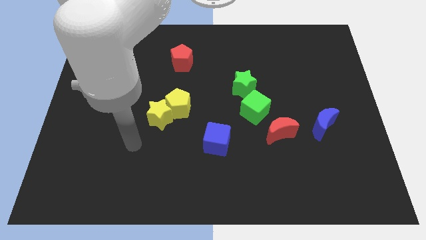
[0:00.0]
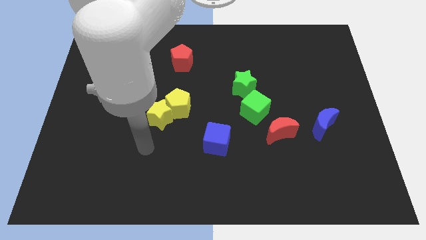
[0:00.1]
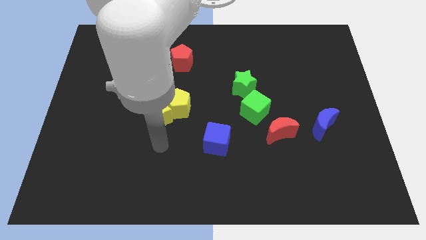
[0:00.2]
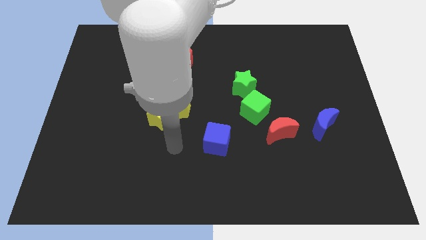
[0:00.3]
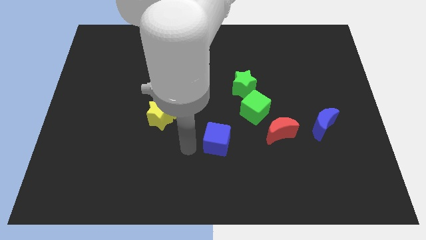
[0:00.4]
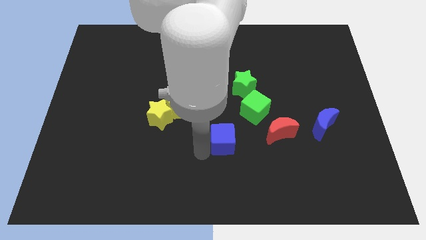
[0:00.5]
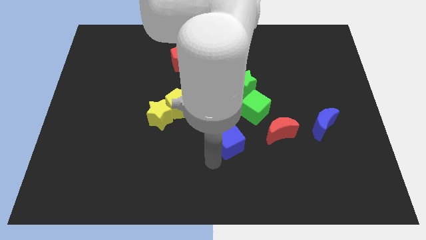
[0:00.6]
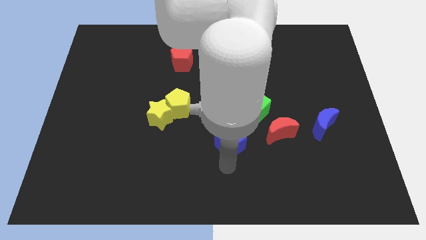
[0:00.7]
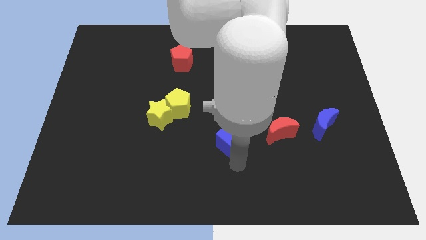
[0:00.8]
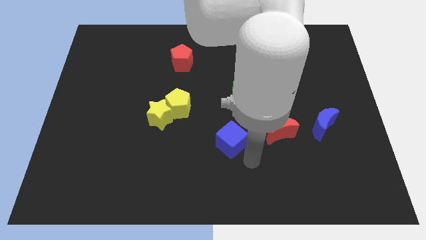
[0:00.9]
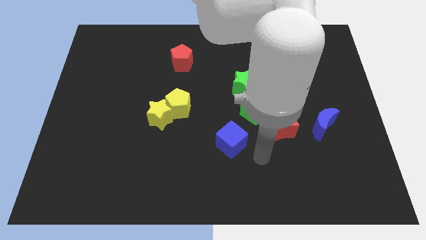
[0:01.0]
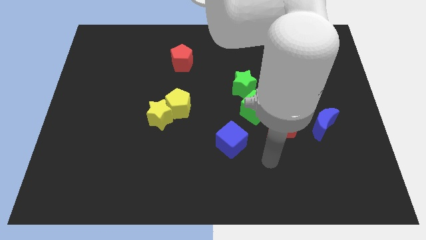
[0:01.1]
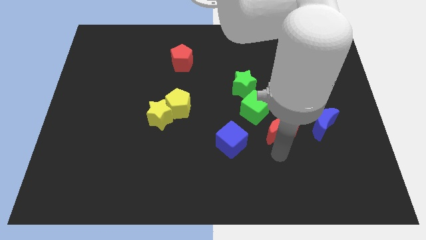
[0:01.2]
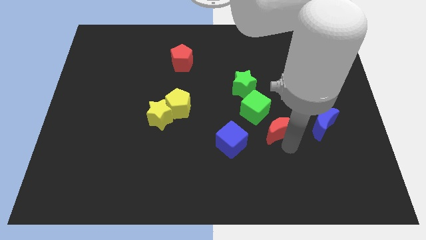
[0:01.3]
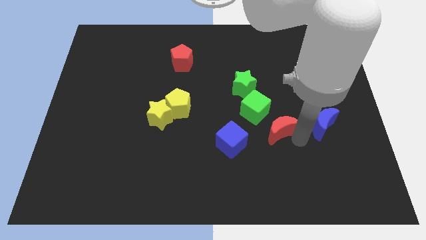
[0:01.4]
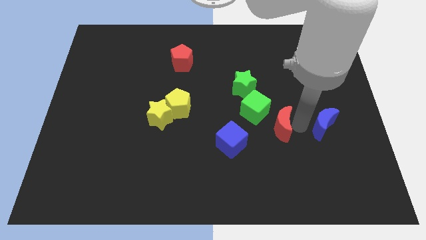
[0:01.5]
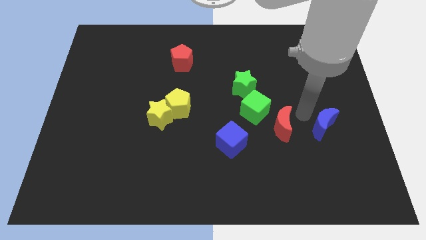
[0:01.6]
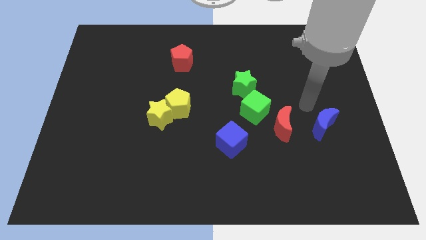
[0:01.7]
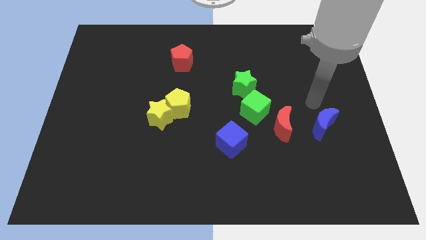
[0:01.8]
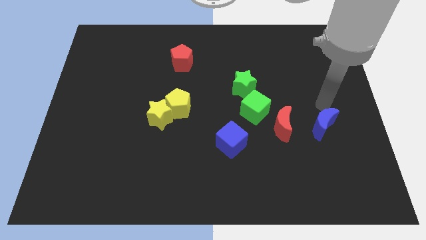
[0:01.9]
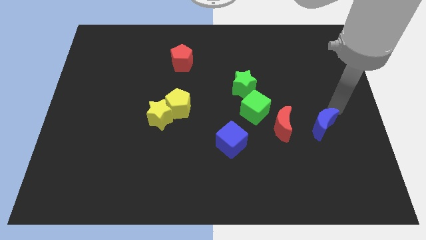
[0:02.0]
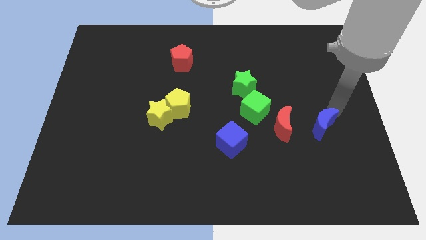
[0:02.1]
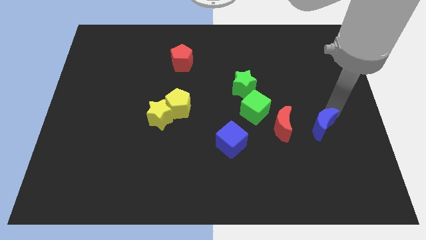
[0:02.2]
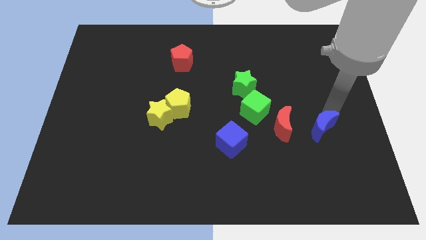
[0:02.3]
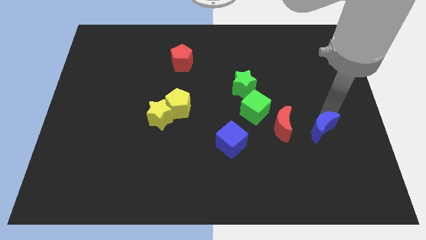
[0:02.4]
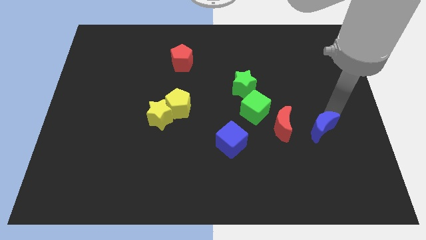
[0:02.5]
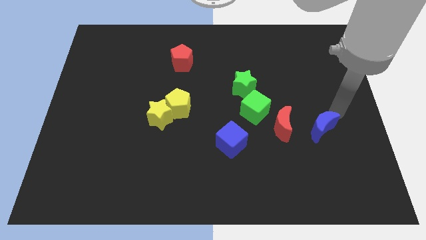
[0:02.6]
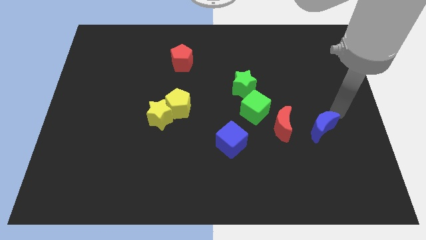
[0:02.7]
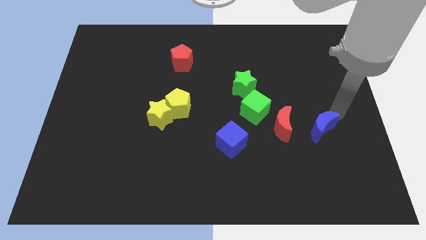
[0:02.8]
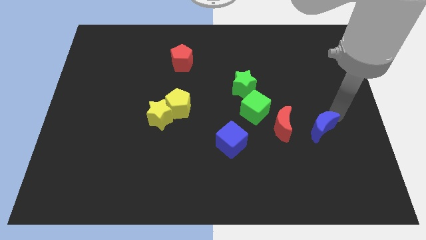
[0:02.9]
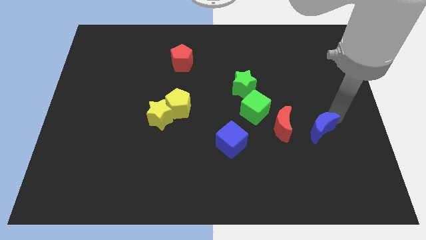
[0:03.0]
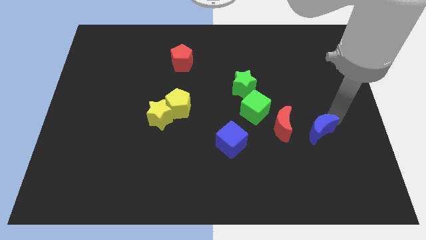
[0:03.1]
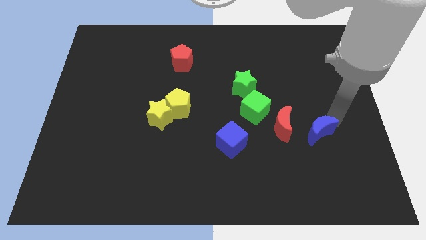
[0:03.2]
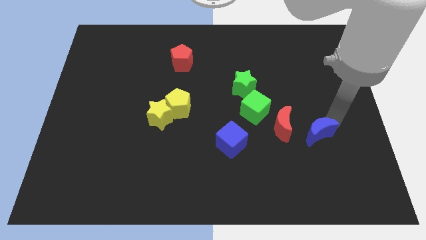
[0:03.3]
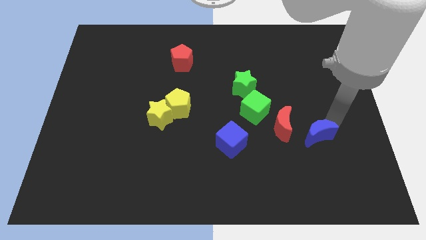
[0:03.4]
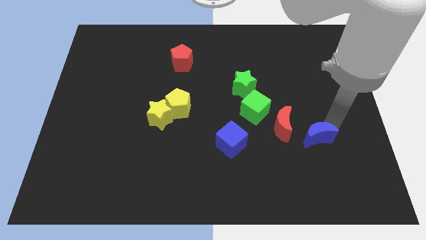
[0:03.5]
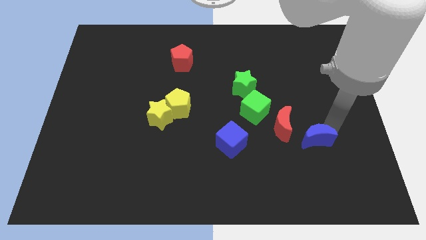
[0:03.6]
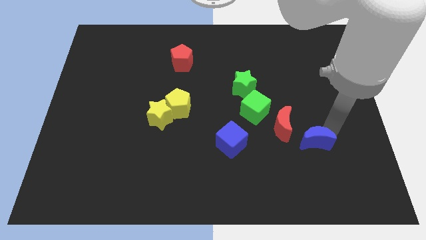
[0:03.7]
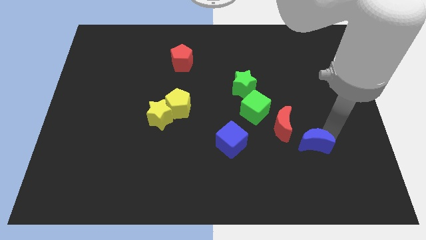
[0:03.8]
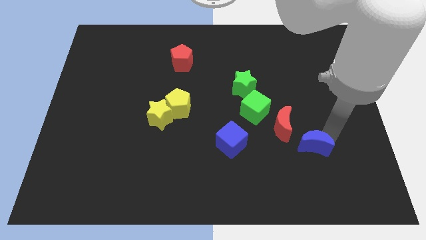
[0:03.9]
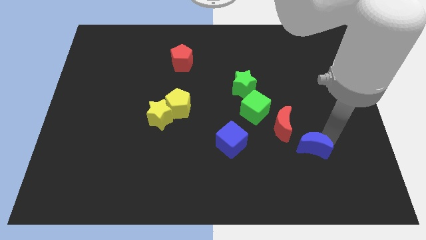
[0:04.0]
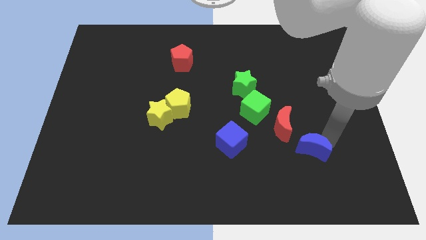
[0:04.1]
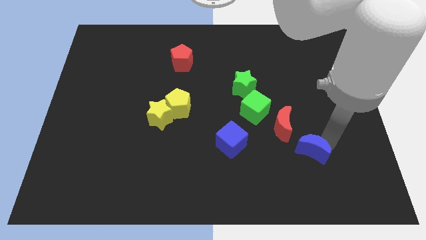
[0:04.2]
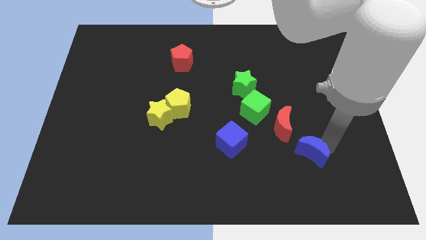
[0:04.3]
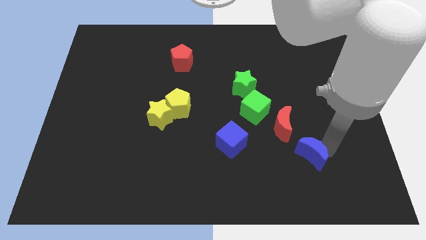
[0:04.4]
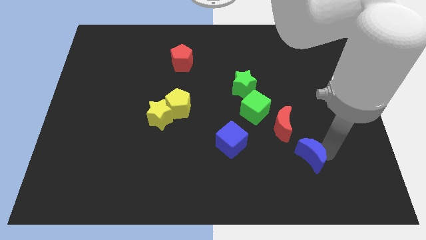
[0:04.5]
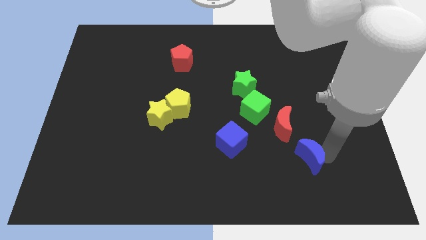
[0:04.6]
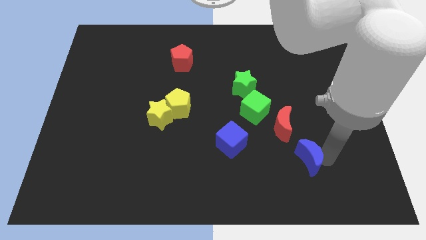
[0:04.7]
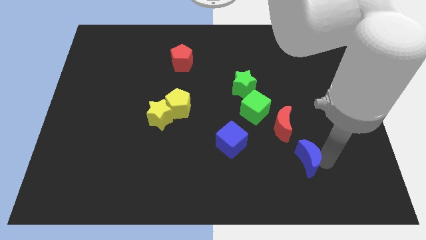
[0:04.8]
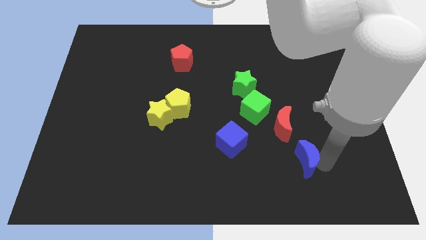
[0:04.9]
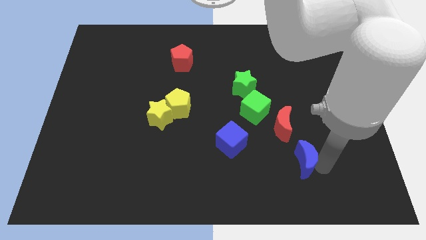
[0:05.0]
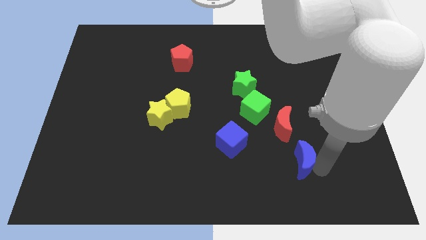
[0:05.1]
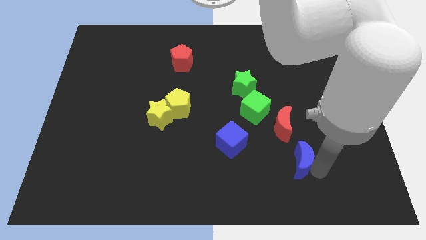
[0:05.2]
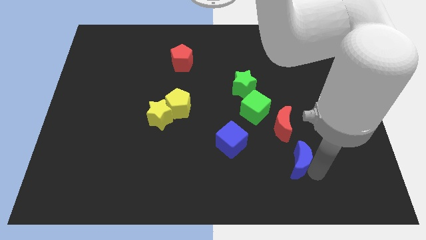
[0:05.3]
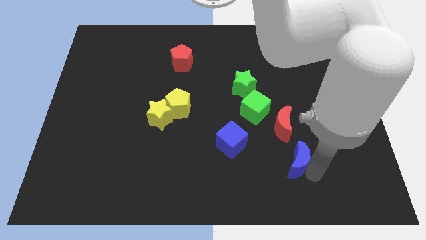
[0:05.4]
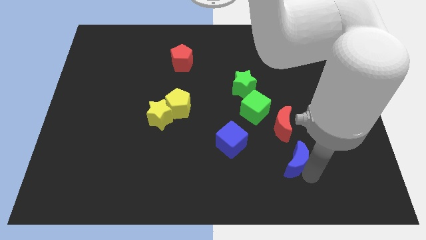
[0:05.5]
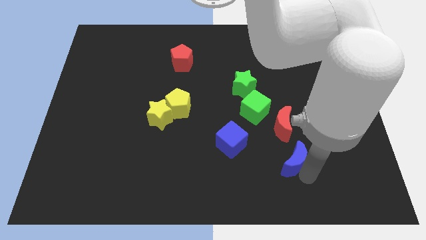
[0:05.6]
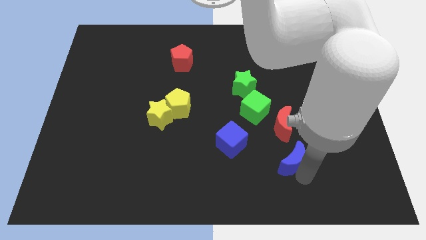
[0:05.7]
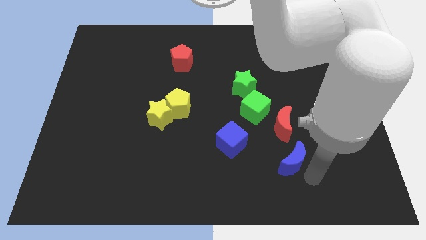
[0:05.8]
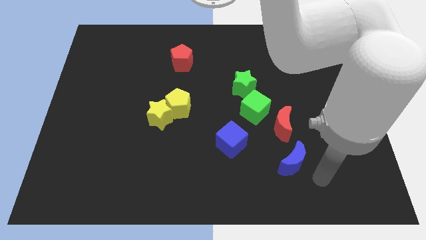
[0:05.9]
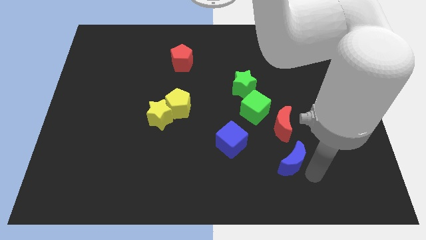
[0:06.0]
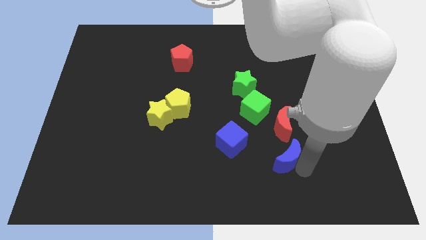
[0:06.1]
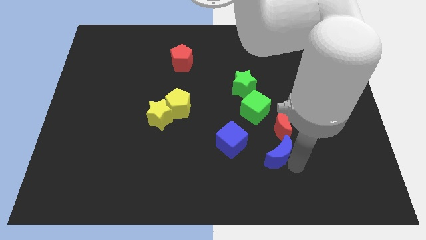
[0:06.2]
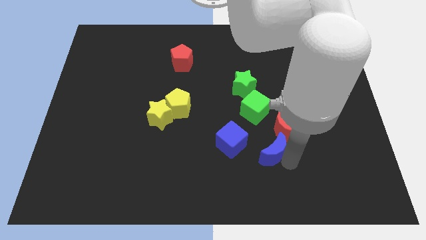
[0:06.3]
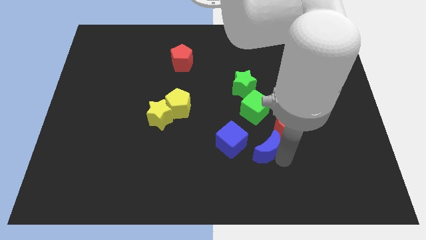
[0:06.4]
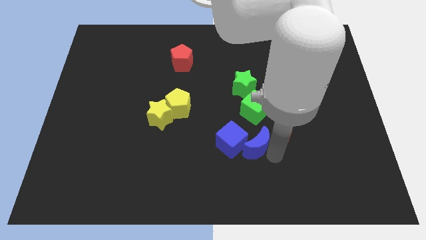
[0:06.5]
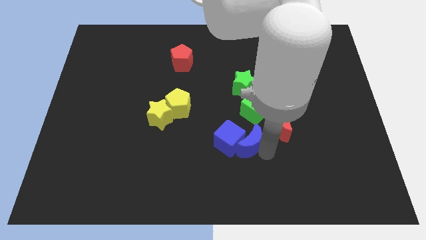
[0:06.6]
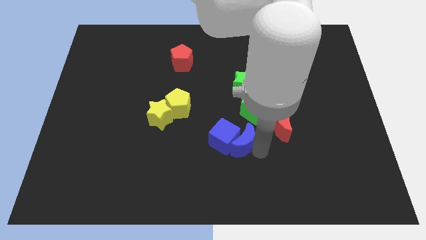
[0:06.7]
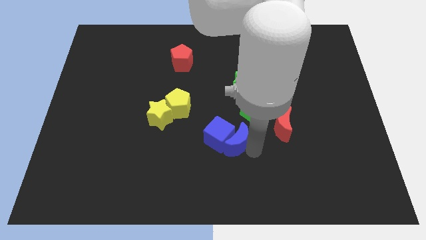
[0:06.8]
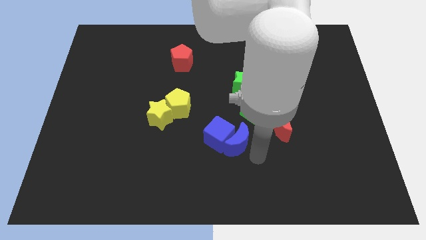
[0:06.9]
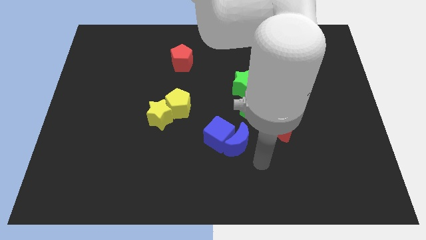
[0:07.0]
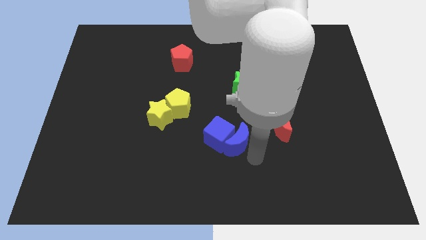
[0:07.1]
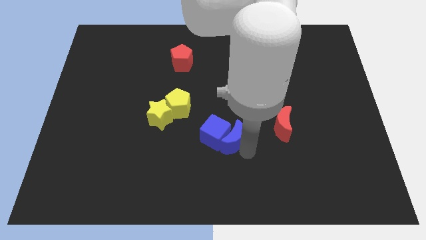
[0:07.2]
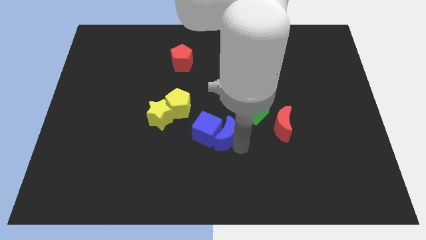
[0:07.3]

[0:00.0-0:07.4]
slide the blue moon left

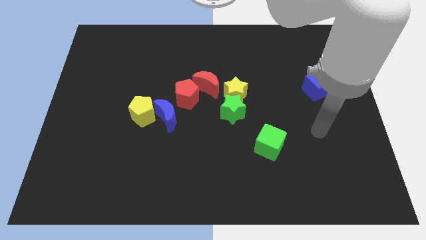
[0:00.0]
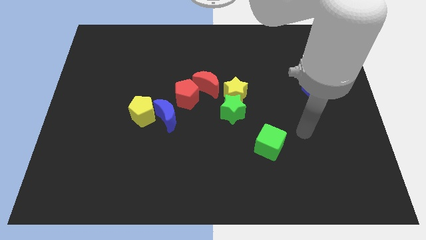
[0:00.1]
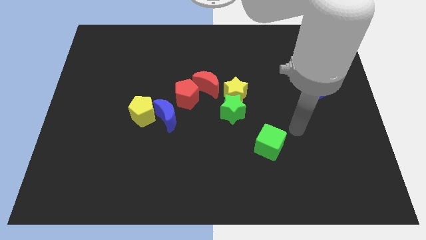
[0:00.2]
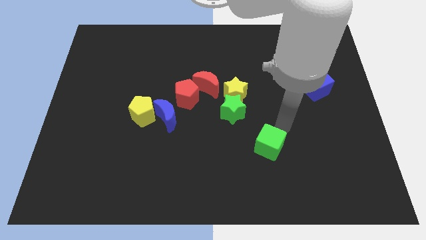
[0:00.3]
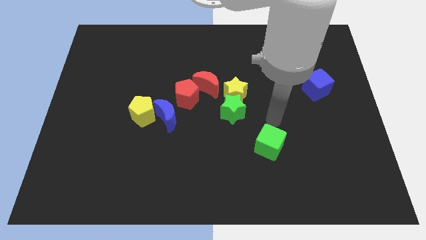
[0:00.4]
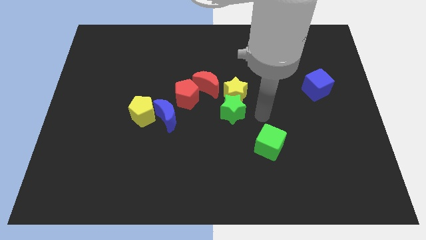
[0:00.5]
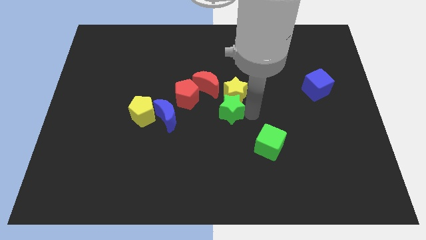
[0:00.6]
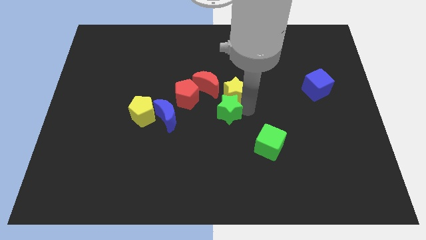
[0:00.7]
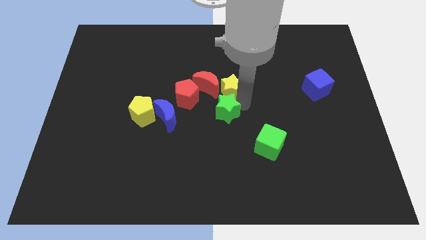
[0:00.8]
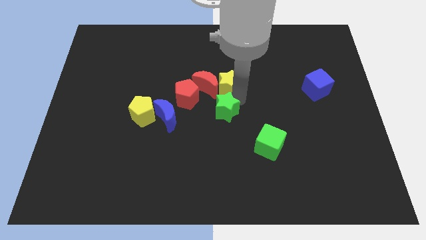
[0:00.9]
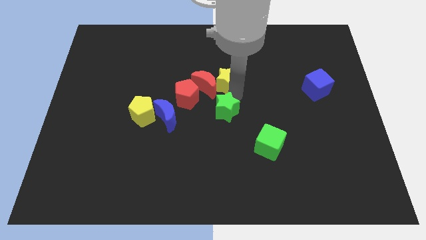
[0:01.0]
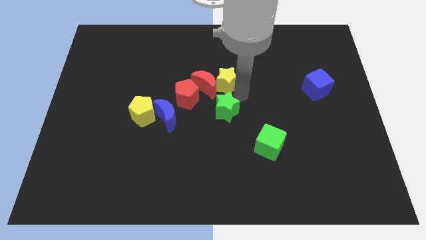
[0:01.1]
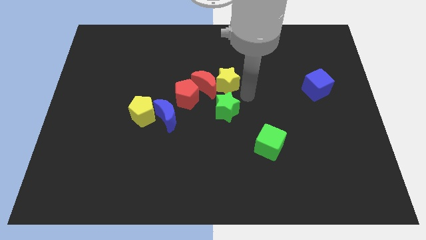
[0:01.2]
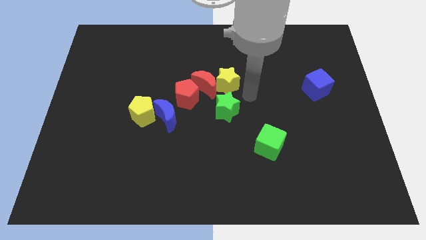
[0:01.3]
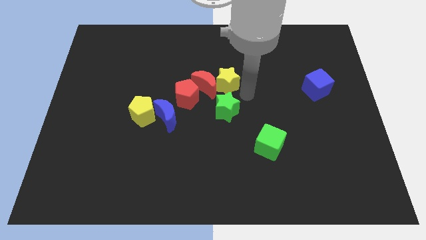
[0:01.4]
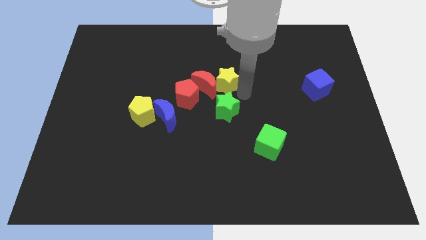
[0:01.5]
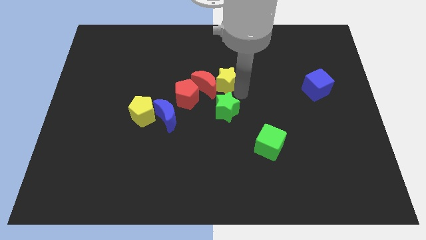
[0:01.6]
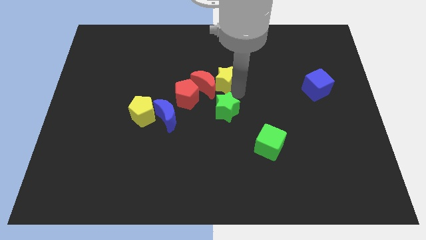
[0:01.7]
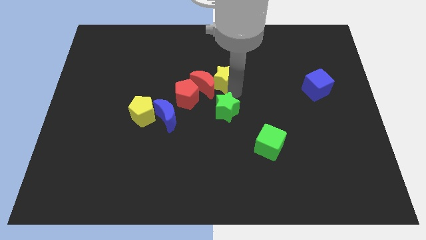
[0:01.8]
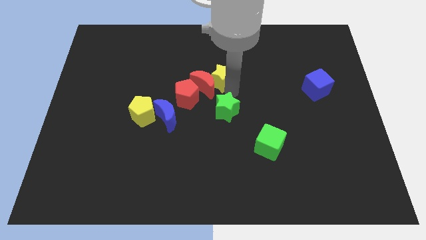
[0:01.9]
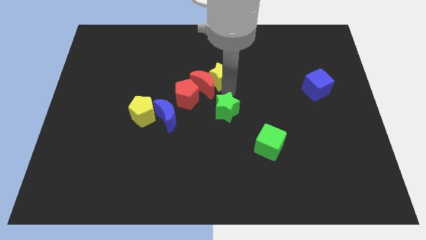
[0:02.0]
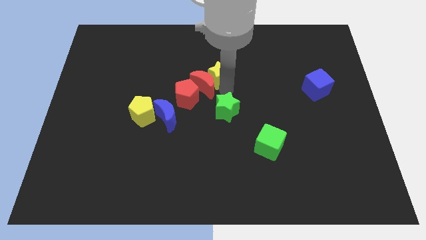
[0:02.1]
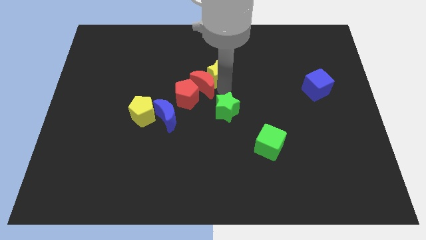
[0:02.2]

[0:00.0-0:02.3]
slide the yellow star up and to the left diagonally slightly
